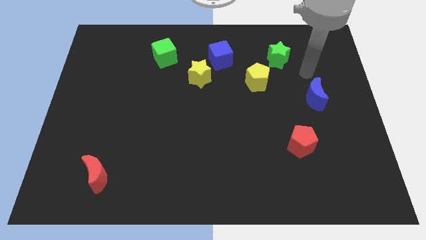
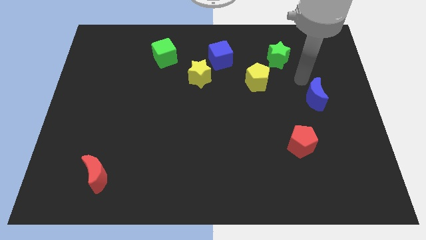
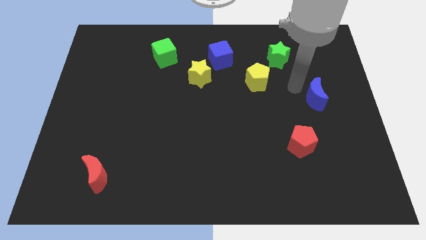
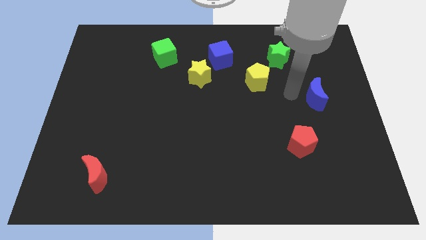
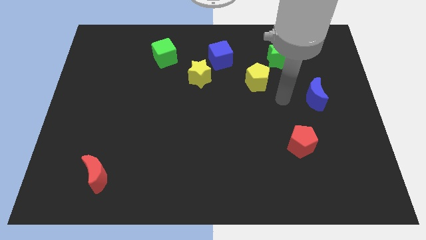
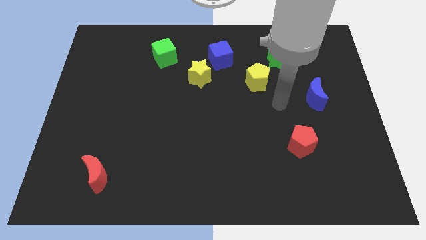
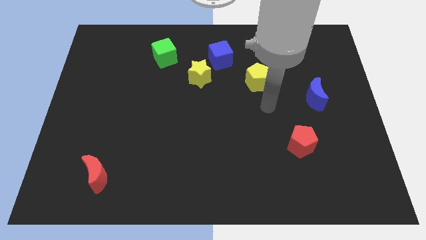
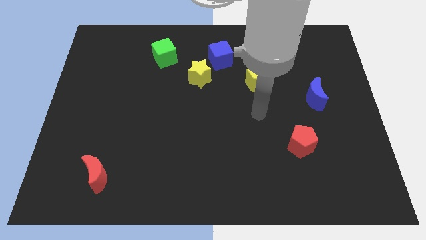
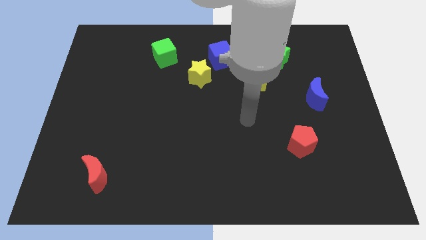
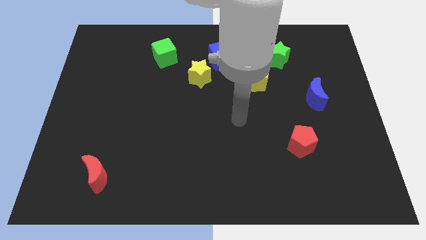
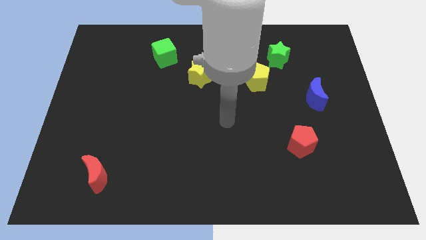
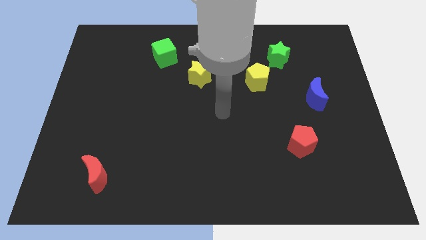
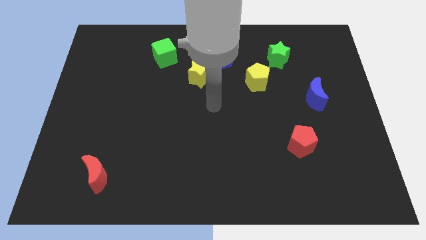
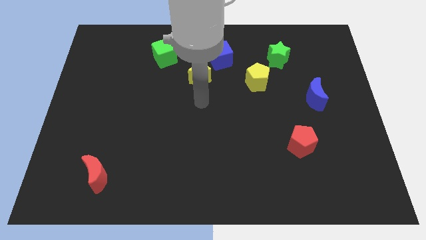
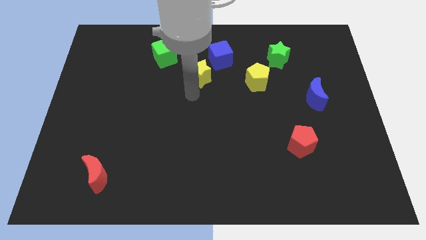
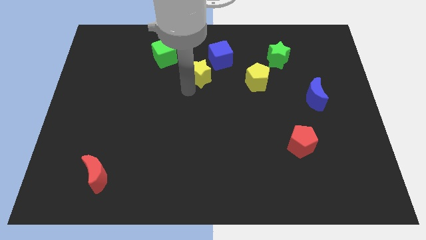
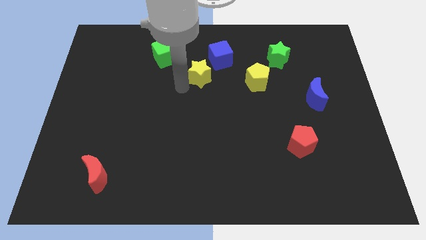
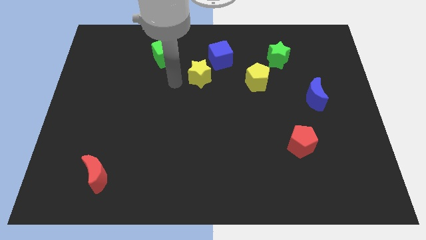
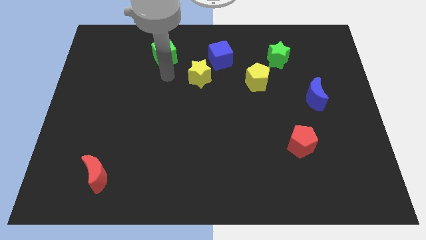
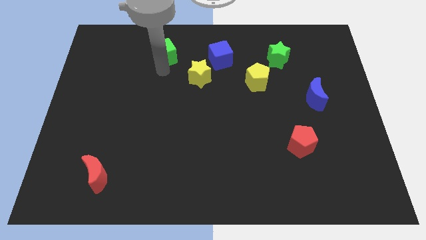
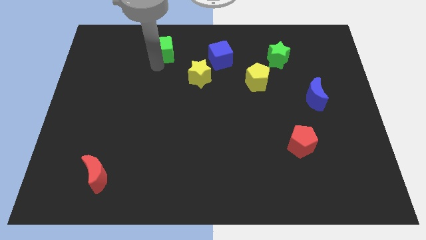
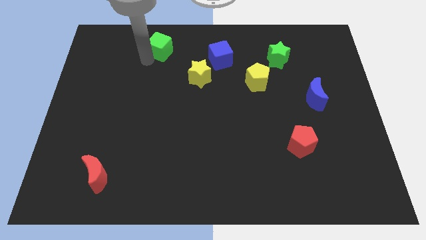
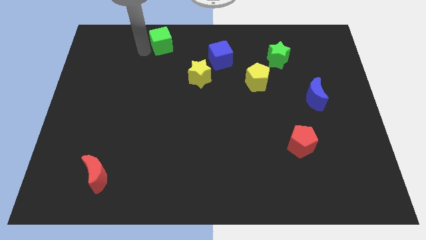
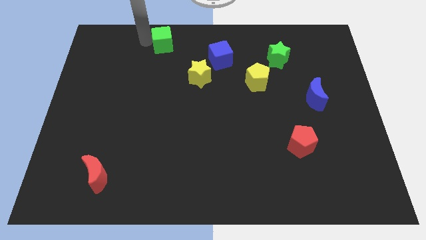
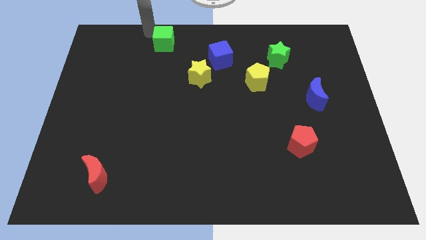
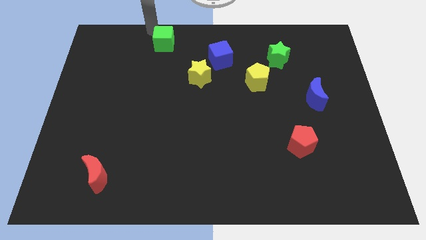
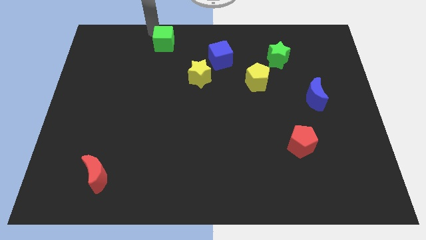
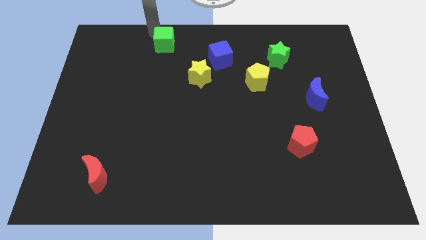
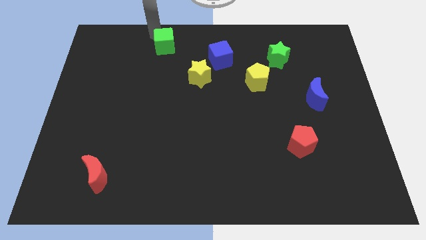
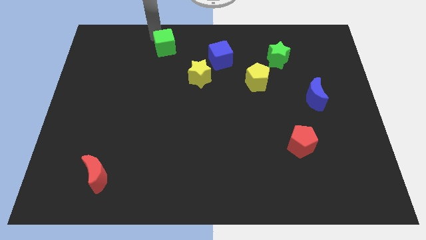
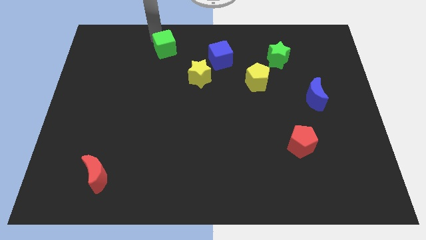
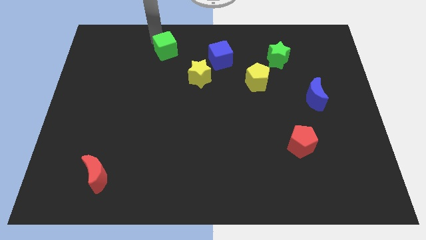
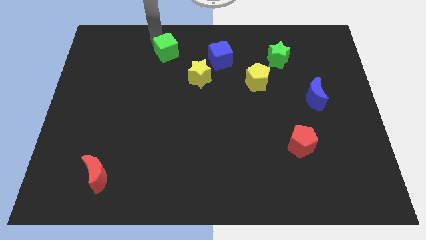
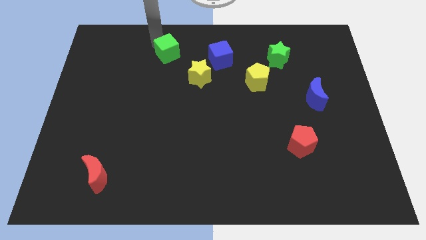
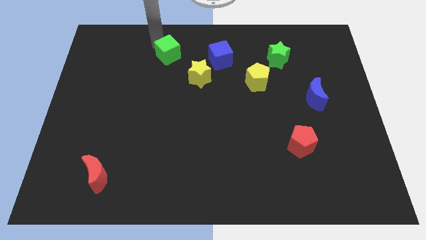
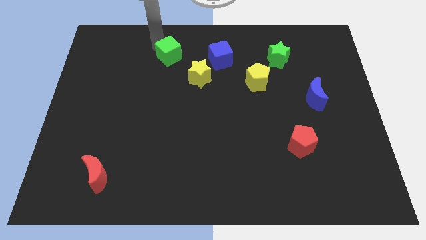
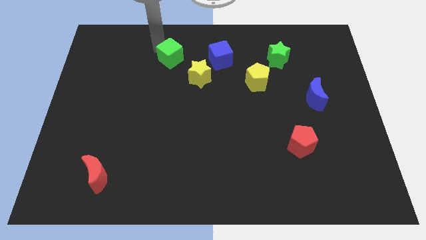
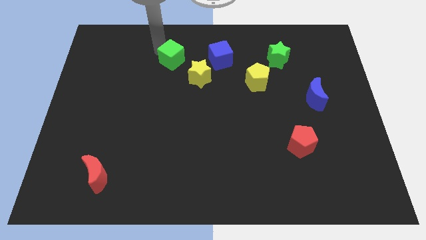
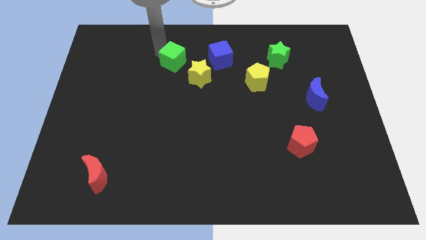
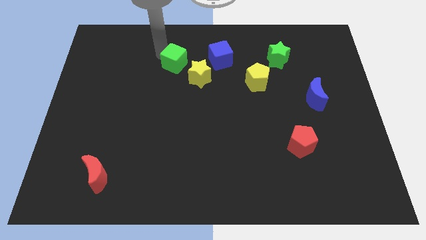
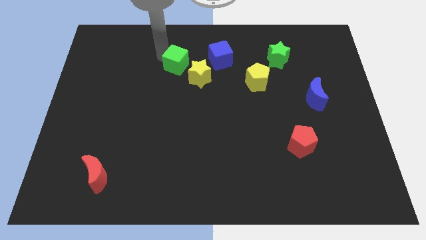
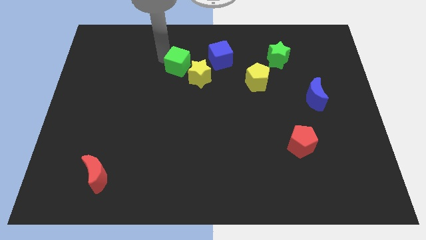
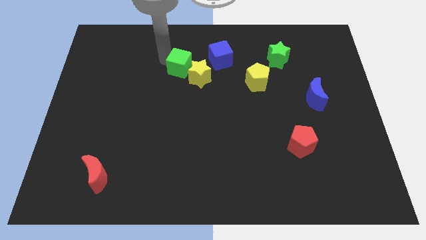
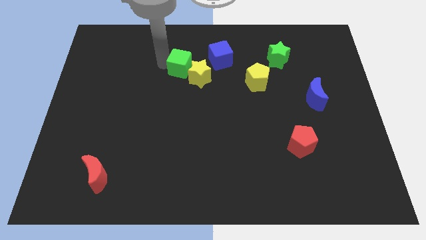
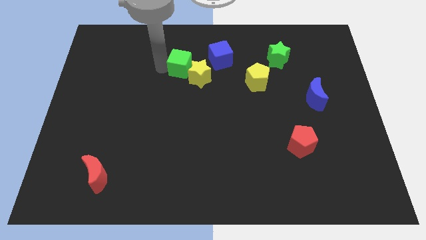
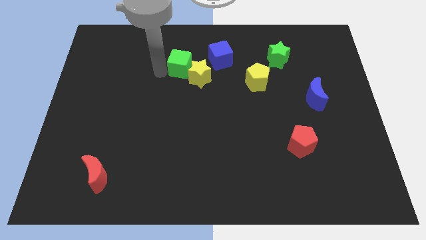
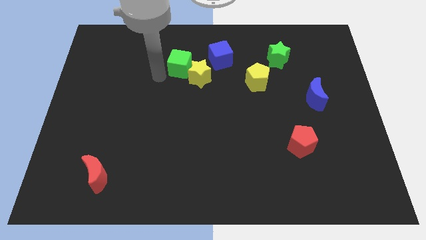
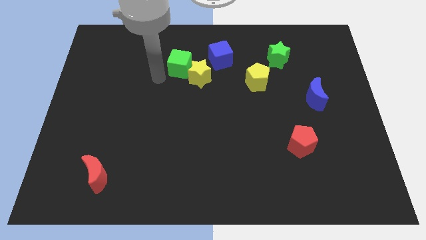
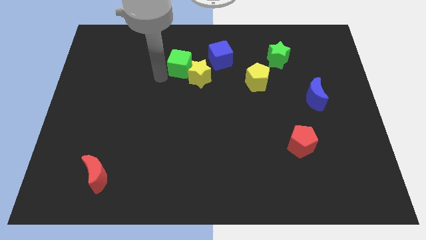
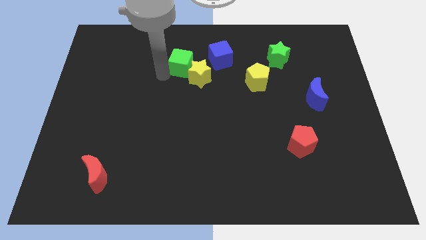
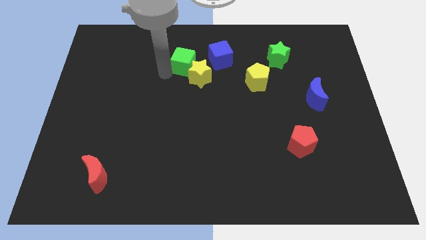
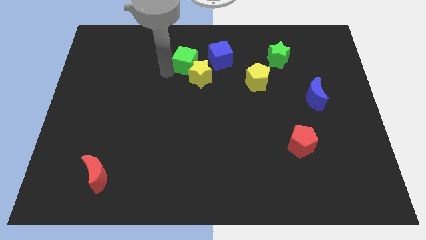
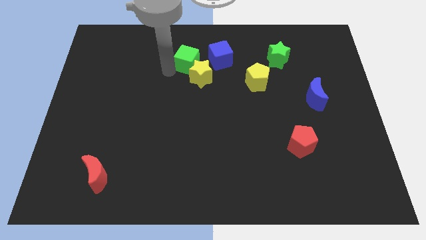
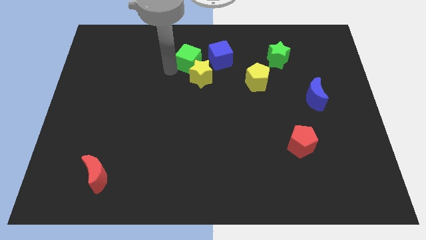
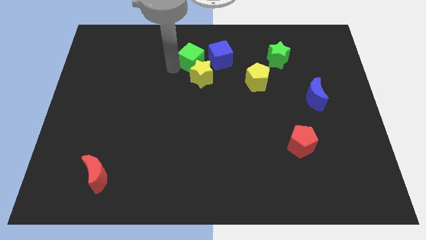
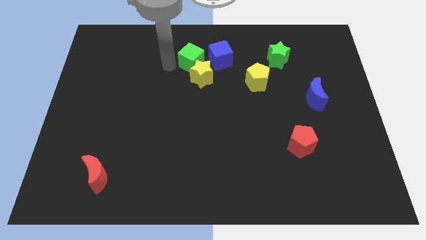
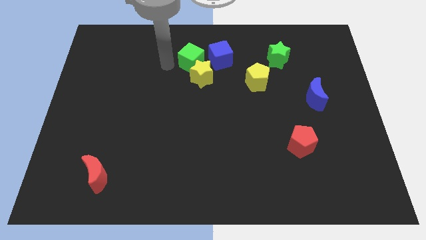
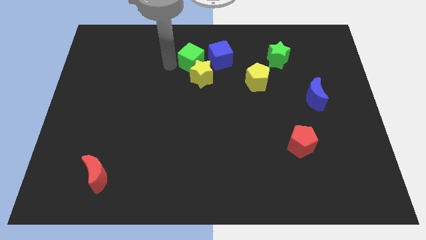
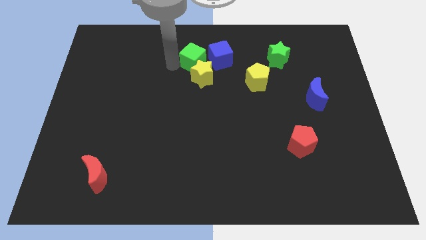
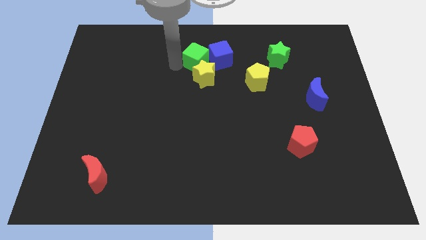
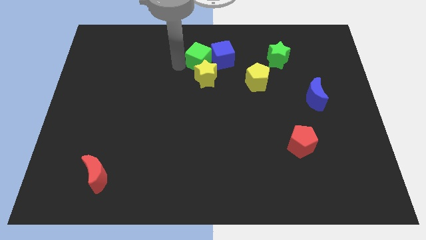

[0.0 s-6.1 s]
put the green cube close to the blue cube

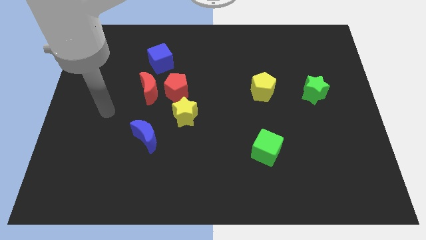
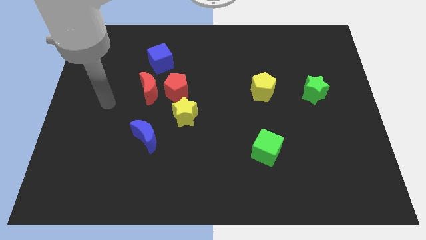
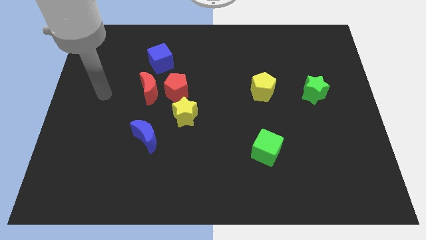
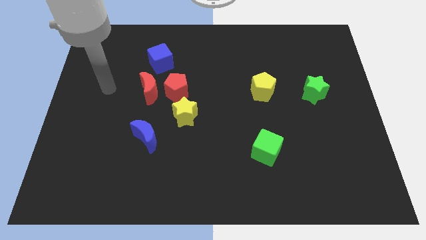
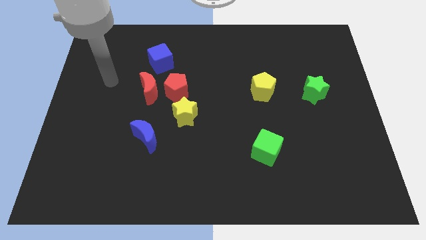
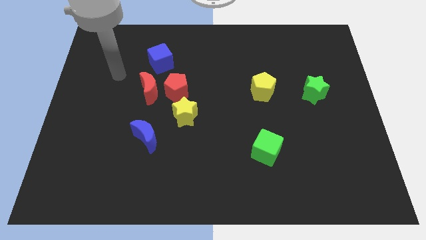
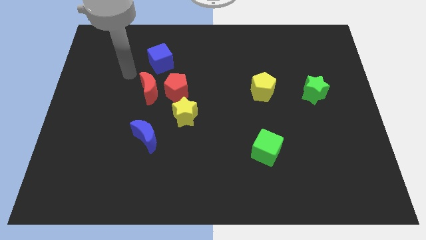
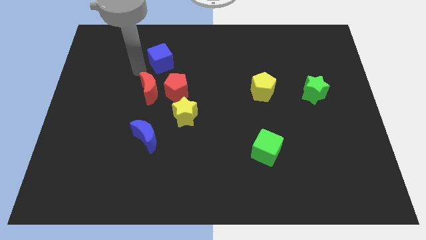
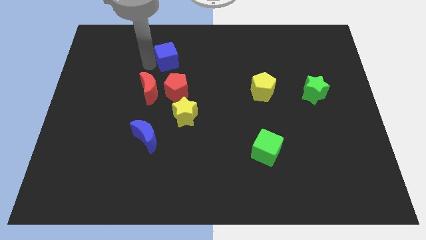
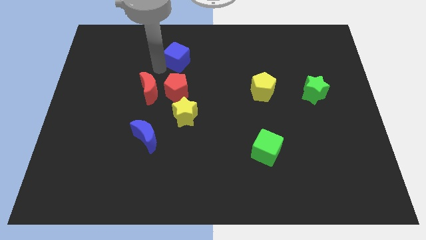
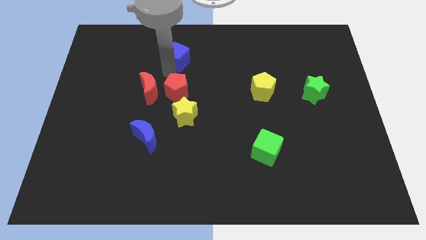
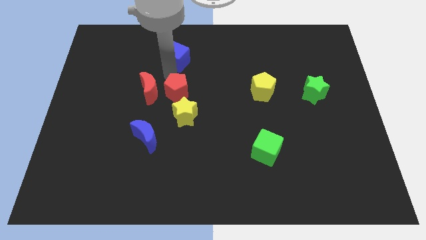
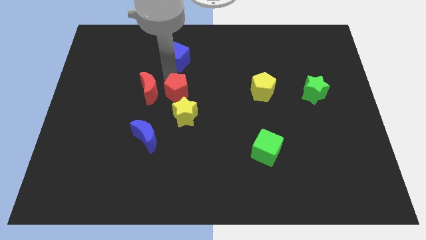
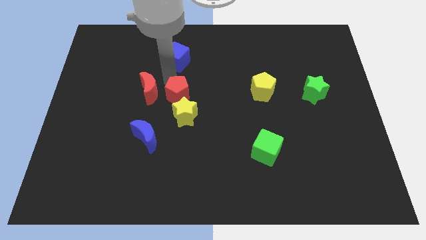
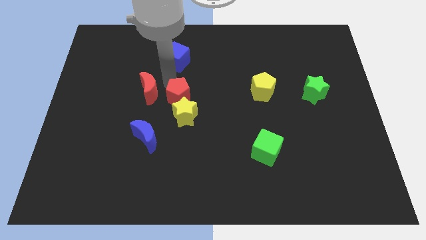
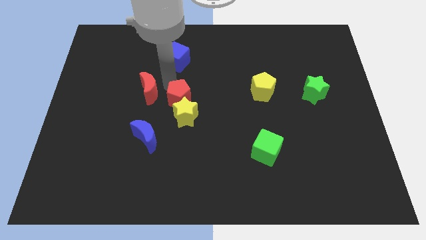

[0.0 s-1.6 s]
slide the red pentagon to the yellow star
